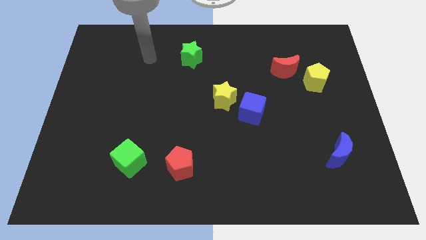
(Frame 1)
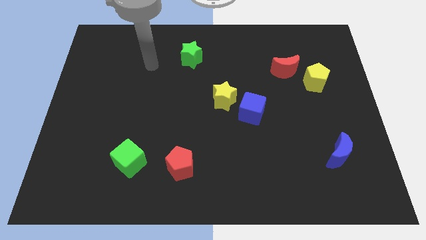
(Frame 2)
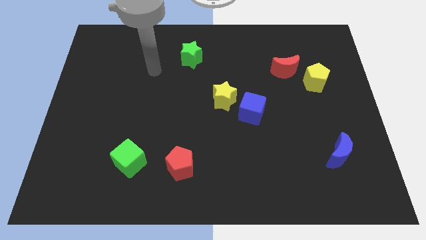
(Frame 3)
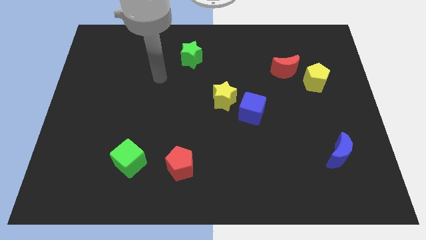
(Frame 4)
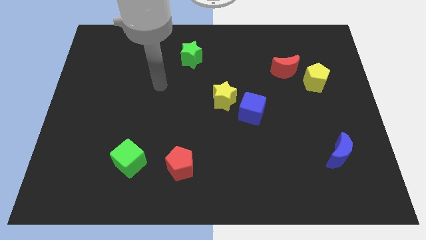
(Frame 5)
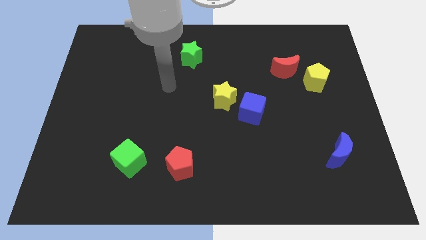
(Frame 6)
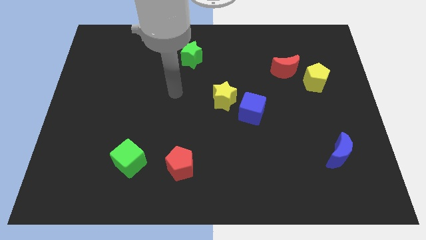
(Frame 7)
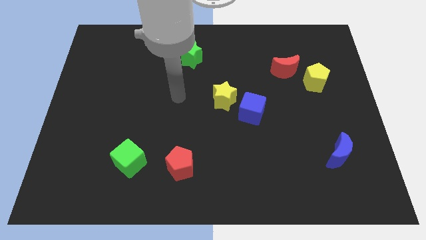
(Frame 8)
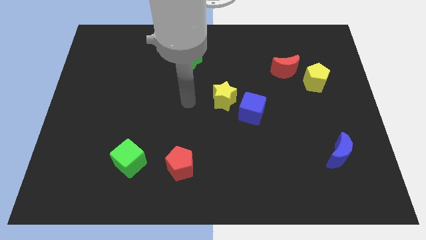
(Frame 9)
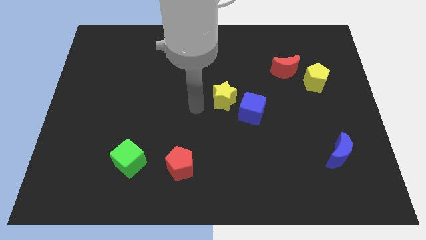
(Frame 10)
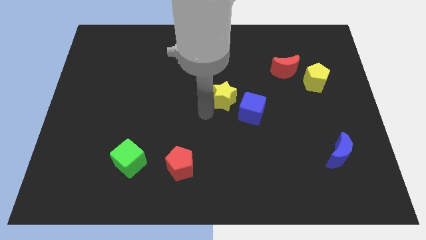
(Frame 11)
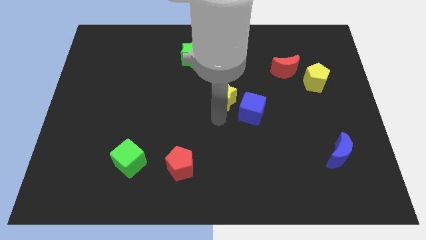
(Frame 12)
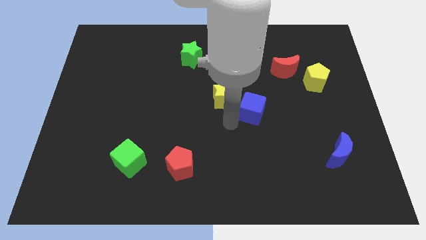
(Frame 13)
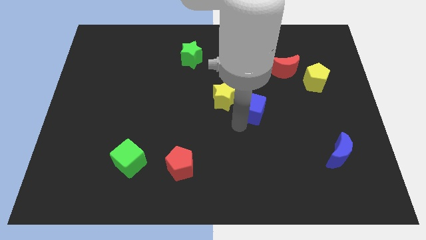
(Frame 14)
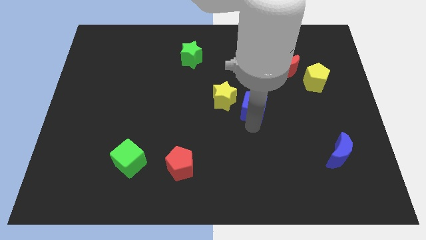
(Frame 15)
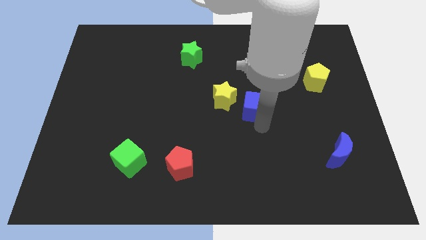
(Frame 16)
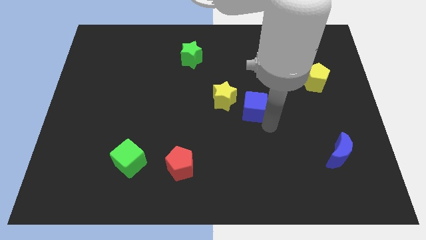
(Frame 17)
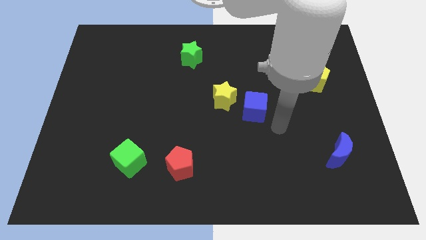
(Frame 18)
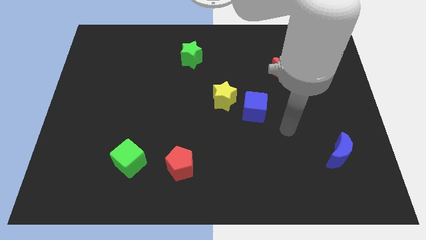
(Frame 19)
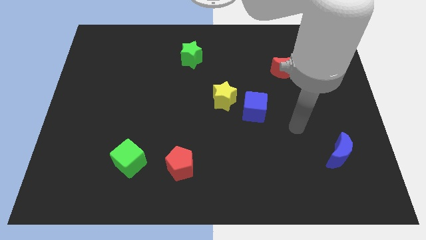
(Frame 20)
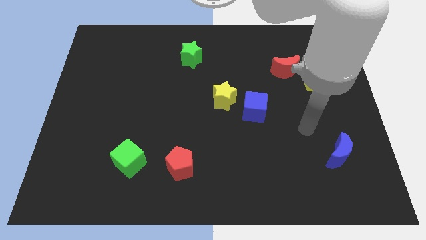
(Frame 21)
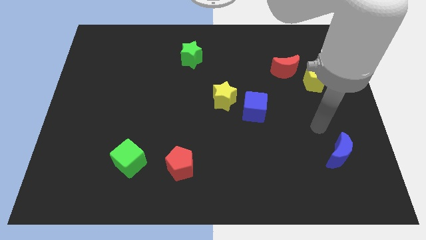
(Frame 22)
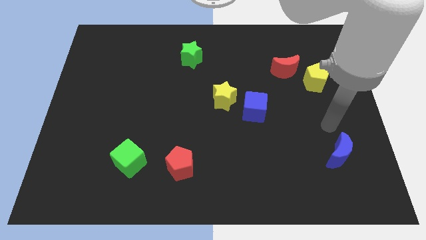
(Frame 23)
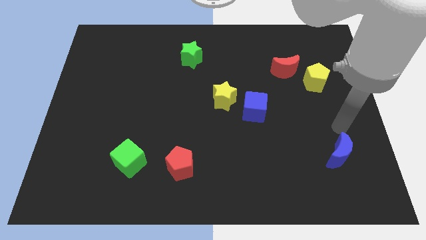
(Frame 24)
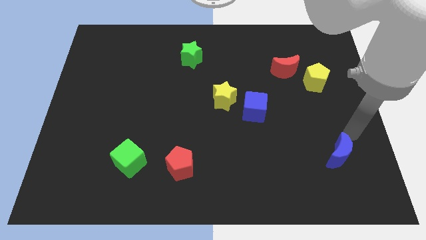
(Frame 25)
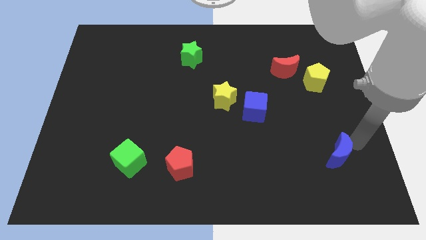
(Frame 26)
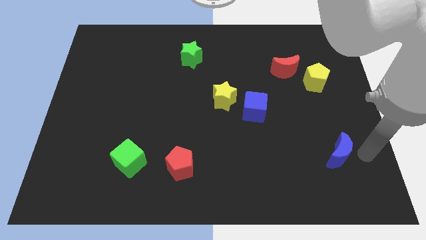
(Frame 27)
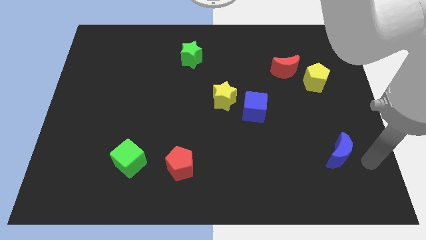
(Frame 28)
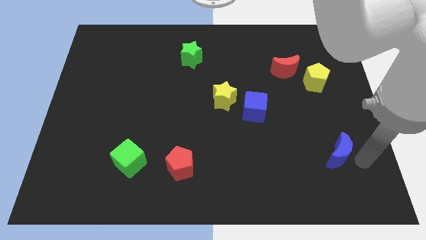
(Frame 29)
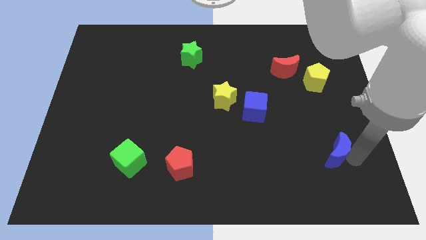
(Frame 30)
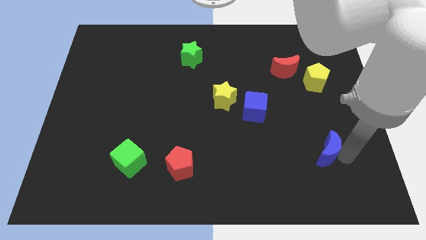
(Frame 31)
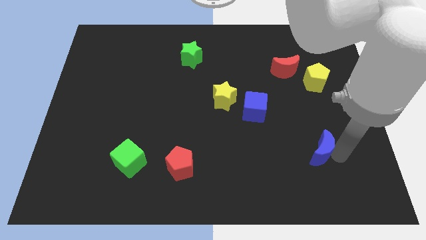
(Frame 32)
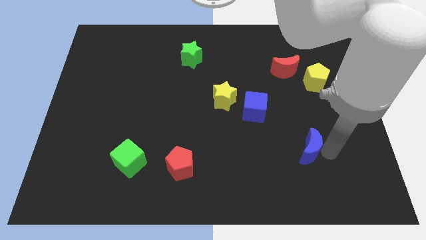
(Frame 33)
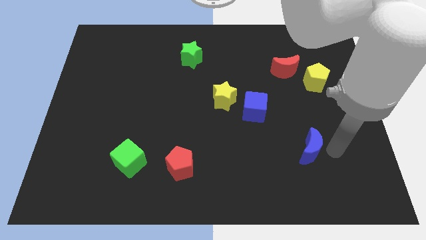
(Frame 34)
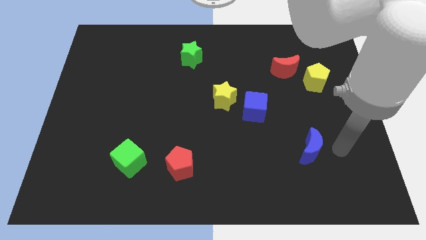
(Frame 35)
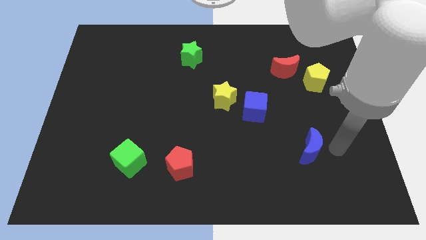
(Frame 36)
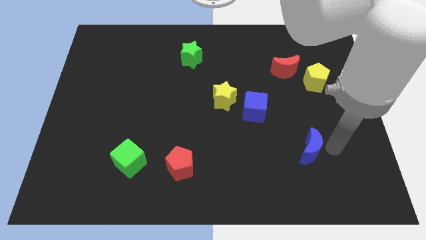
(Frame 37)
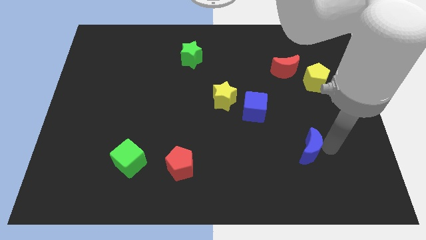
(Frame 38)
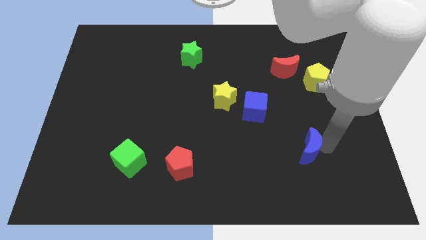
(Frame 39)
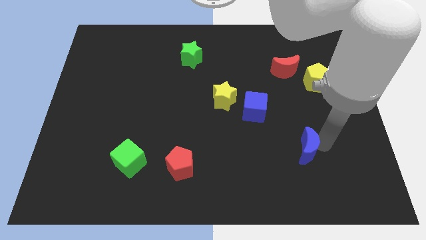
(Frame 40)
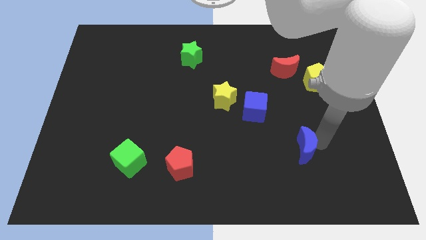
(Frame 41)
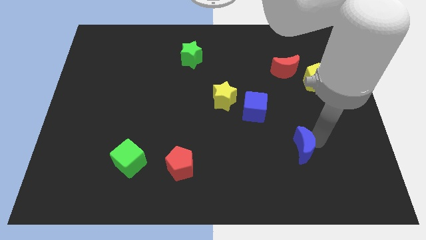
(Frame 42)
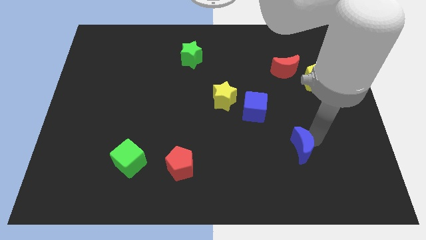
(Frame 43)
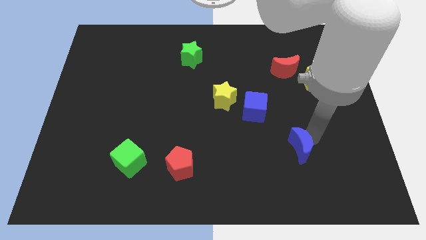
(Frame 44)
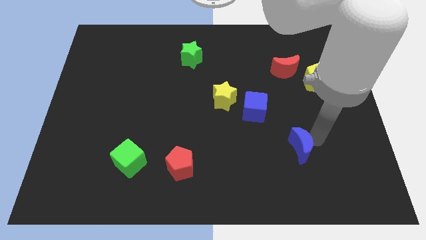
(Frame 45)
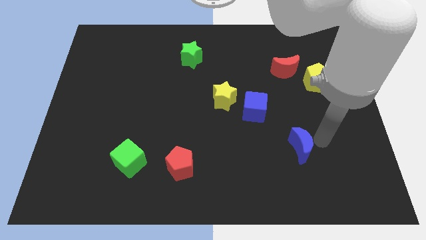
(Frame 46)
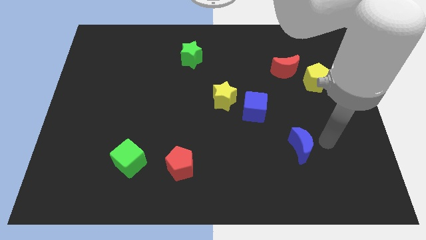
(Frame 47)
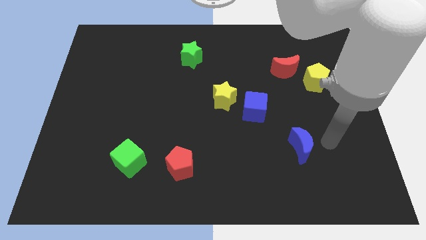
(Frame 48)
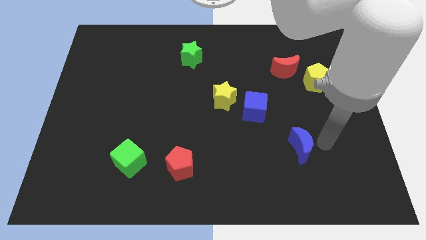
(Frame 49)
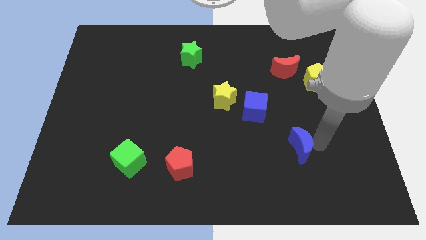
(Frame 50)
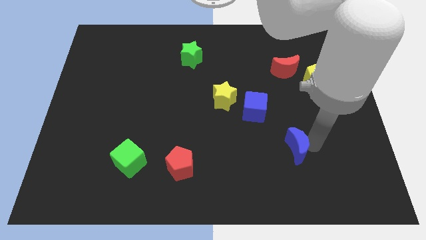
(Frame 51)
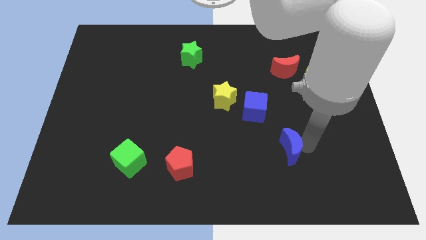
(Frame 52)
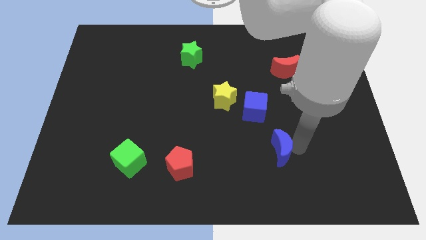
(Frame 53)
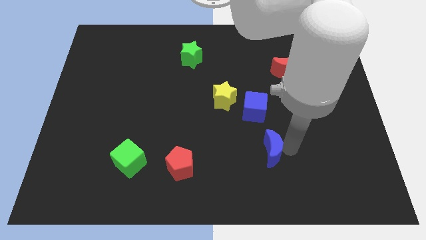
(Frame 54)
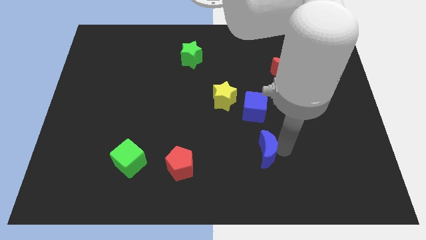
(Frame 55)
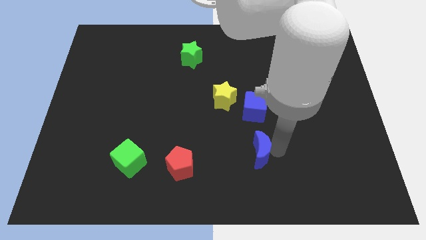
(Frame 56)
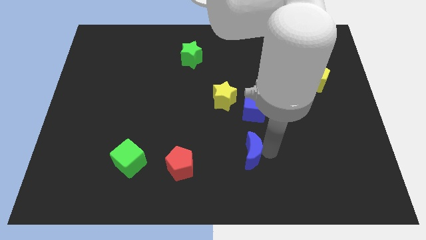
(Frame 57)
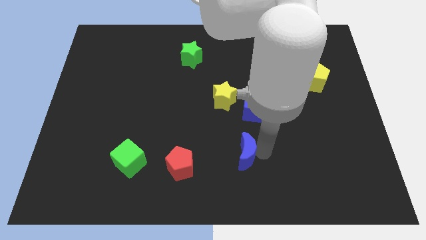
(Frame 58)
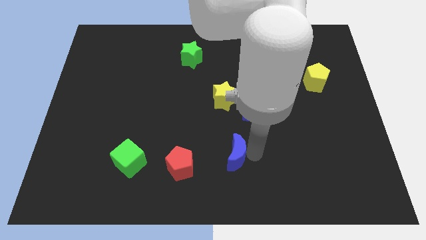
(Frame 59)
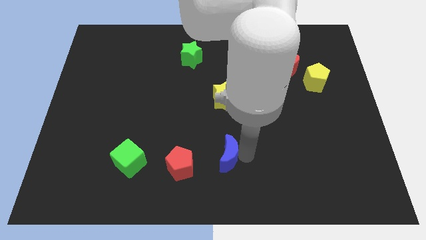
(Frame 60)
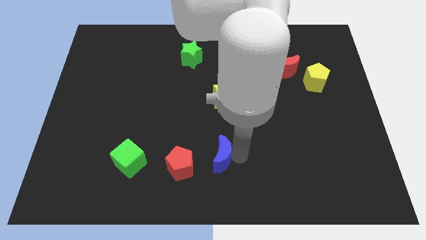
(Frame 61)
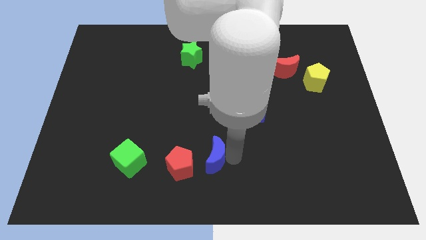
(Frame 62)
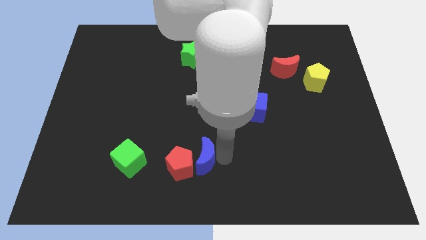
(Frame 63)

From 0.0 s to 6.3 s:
put the blue moon right of the green cube
